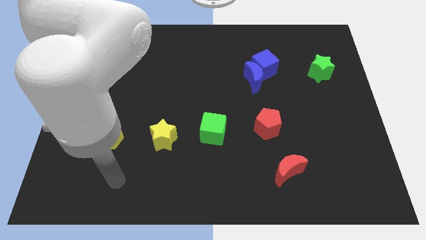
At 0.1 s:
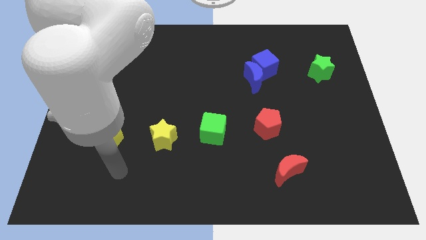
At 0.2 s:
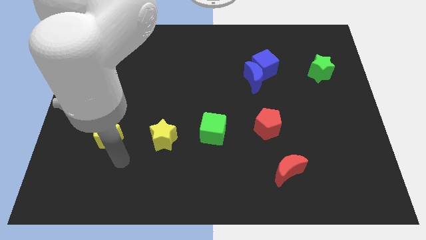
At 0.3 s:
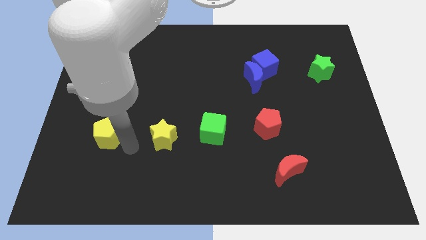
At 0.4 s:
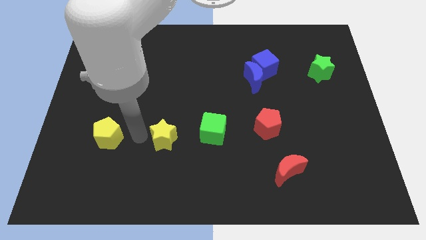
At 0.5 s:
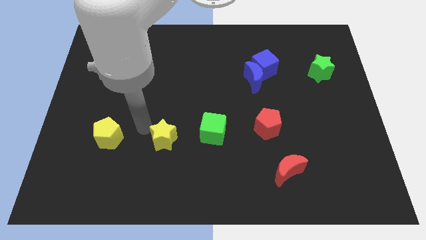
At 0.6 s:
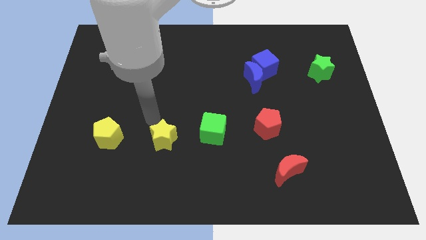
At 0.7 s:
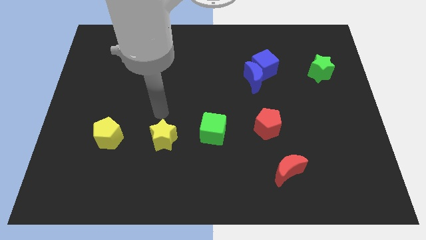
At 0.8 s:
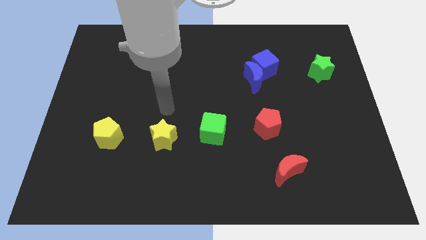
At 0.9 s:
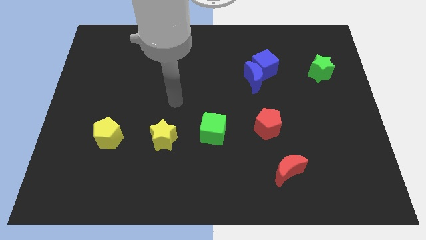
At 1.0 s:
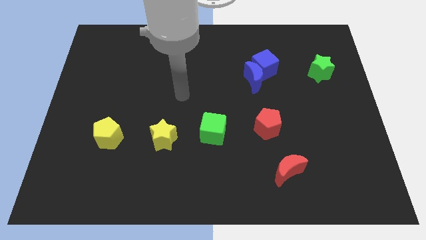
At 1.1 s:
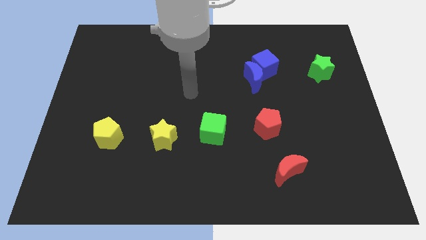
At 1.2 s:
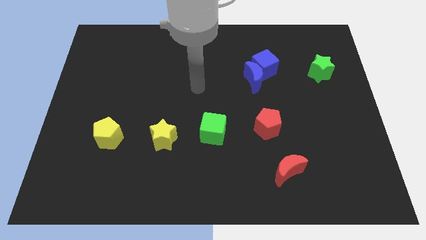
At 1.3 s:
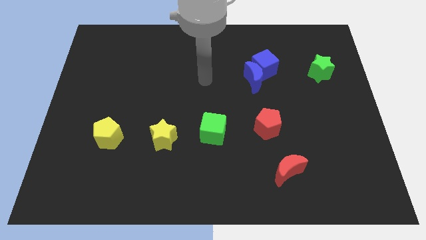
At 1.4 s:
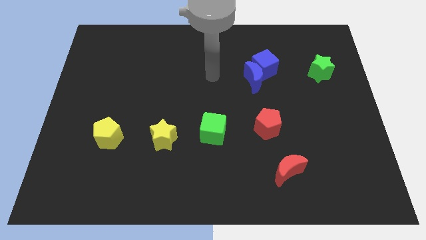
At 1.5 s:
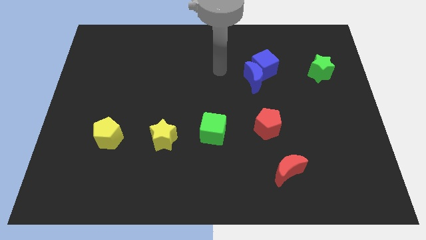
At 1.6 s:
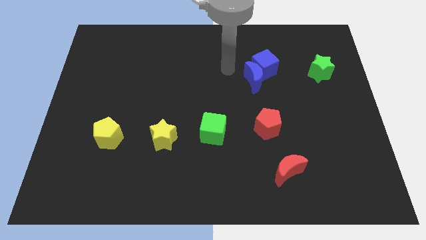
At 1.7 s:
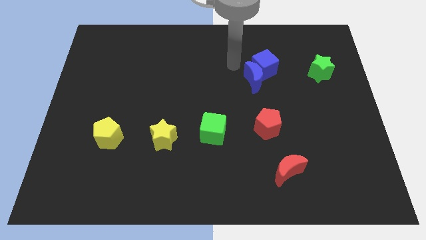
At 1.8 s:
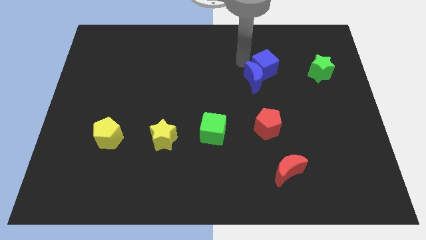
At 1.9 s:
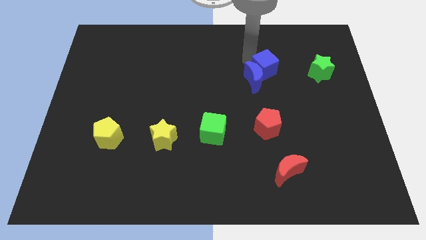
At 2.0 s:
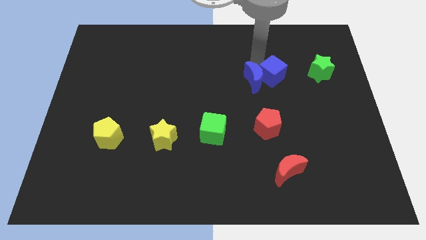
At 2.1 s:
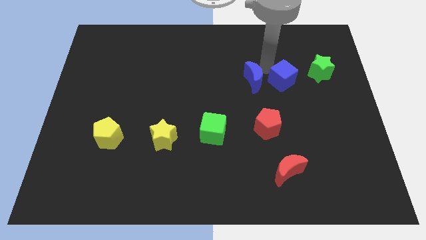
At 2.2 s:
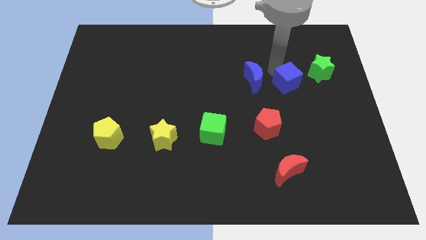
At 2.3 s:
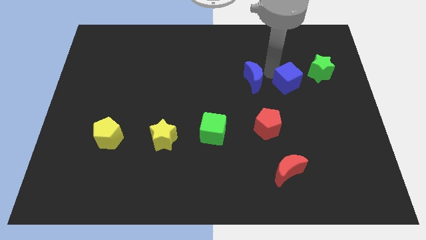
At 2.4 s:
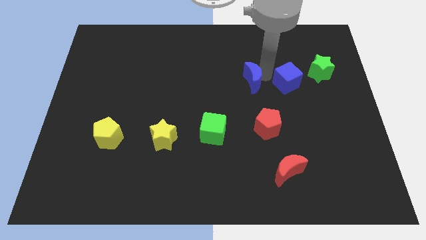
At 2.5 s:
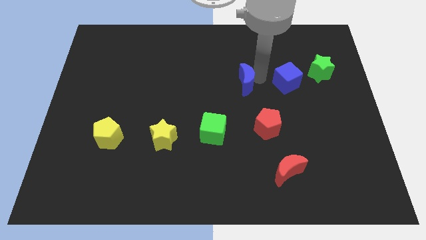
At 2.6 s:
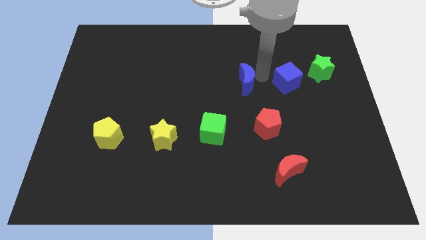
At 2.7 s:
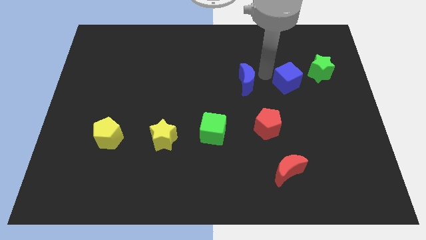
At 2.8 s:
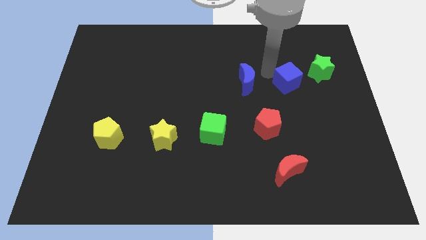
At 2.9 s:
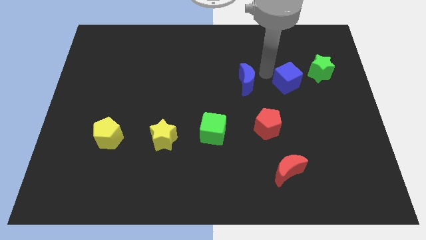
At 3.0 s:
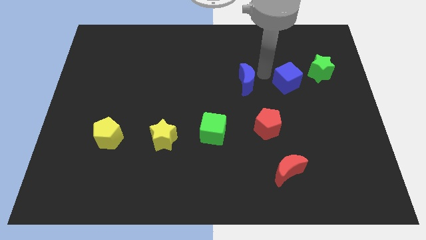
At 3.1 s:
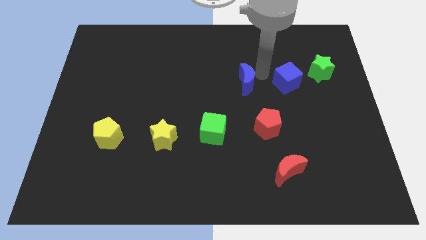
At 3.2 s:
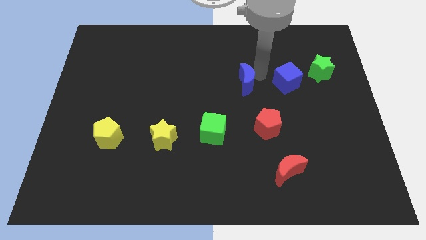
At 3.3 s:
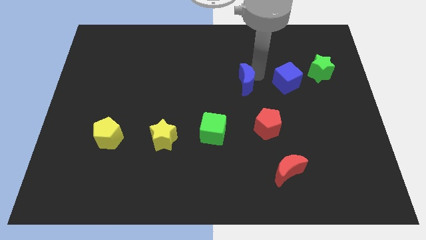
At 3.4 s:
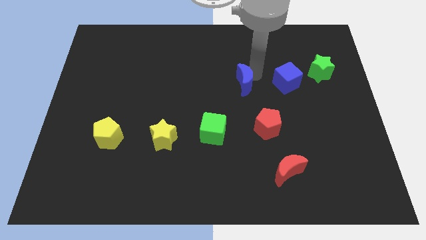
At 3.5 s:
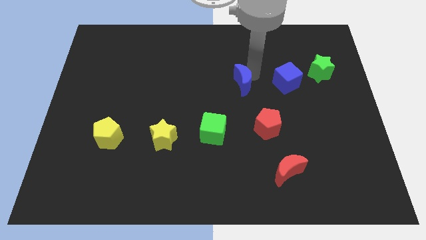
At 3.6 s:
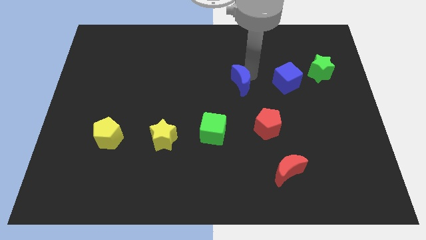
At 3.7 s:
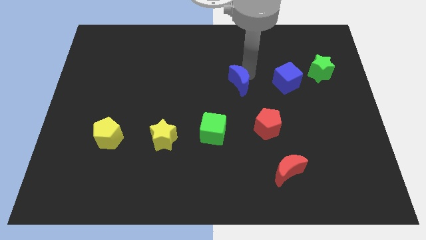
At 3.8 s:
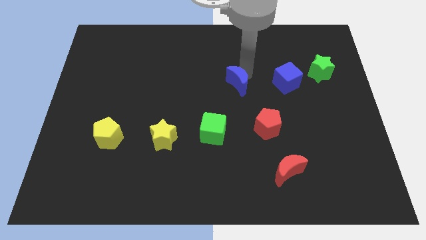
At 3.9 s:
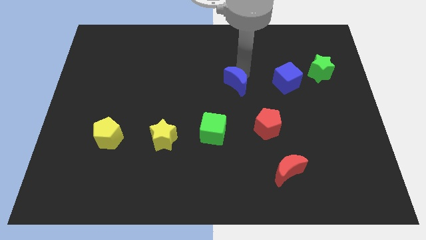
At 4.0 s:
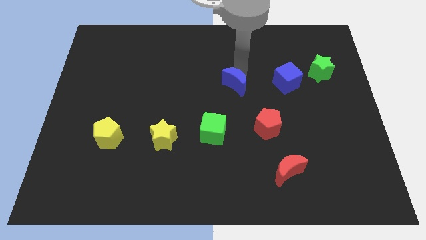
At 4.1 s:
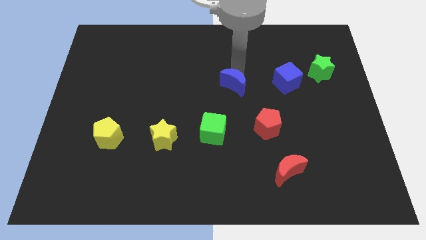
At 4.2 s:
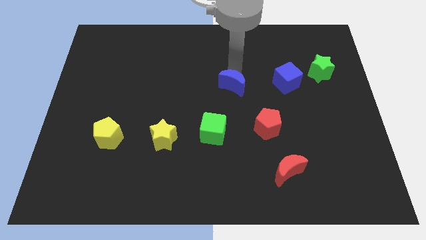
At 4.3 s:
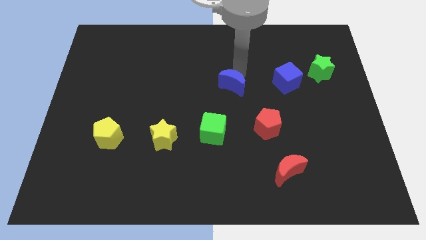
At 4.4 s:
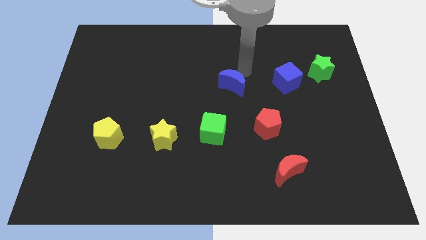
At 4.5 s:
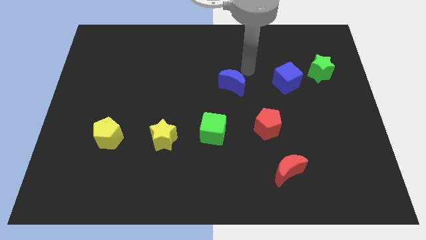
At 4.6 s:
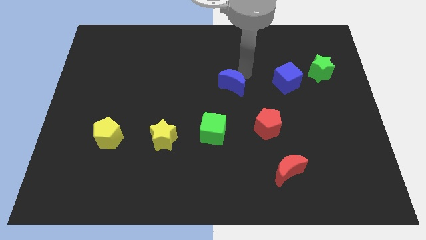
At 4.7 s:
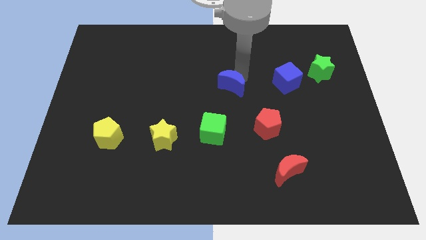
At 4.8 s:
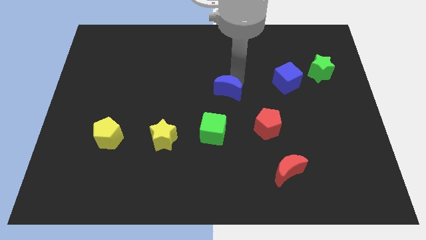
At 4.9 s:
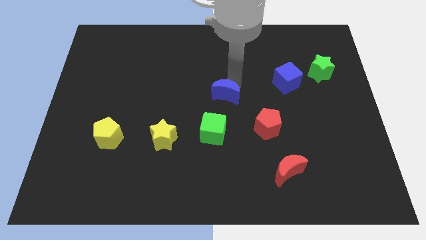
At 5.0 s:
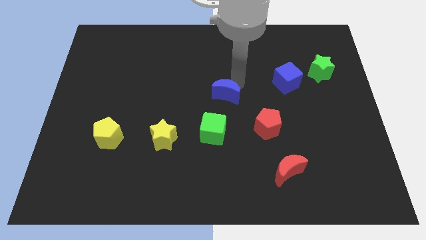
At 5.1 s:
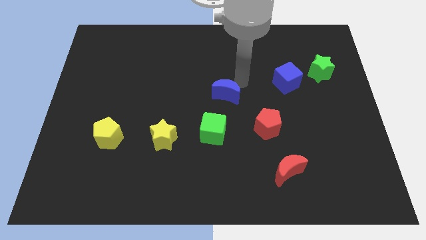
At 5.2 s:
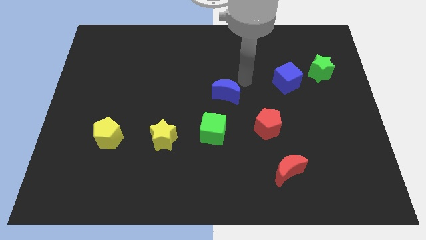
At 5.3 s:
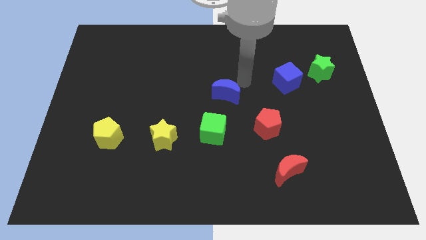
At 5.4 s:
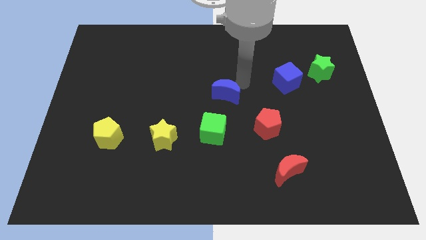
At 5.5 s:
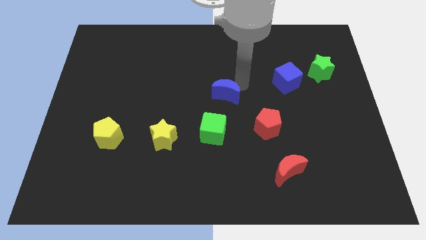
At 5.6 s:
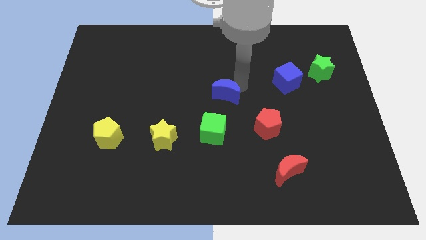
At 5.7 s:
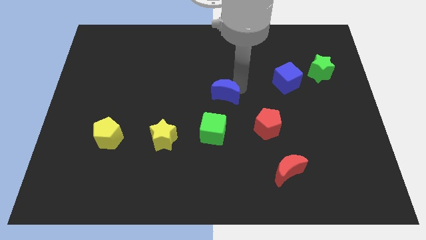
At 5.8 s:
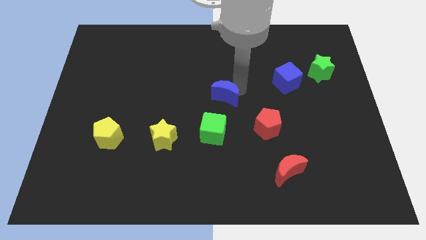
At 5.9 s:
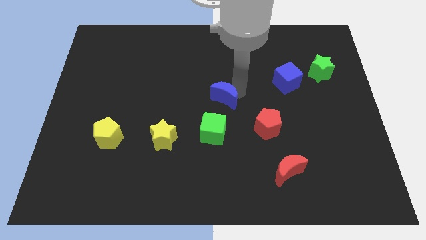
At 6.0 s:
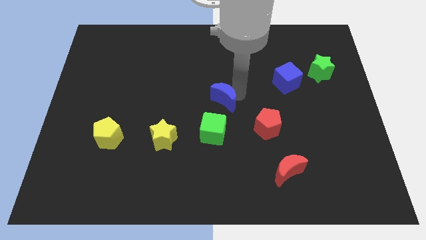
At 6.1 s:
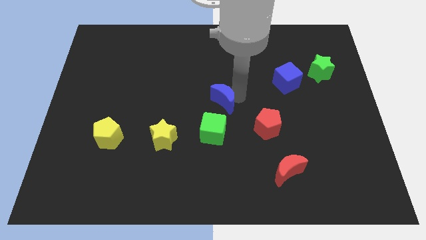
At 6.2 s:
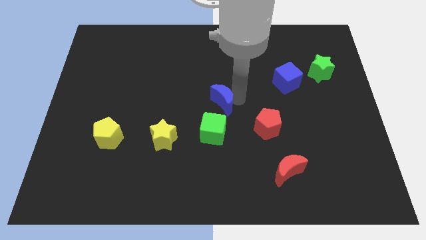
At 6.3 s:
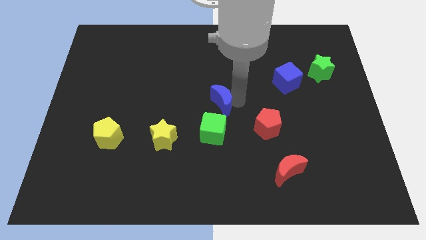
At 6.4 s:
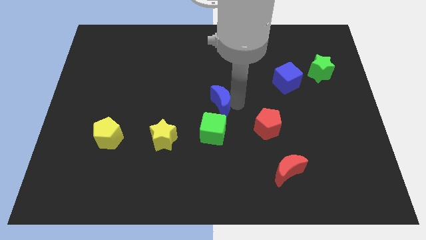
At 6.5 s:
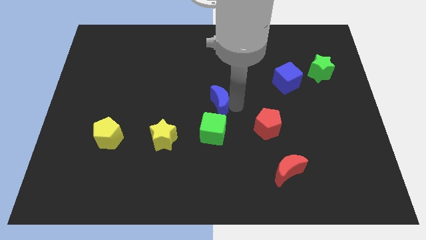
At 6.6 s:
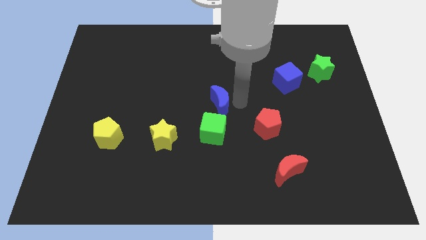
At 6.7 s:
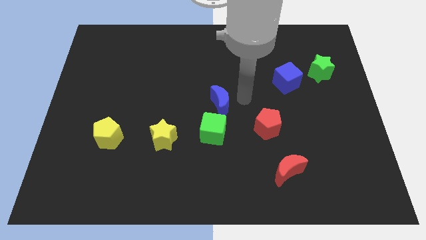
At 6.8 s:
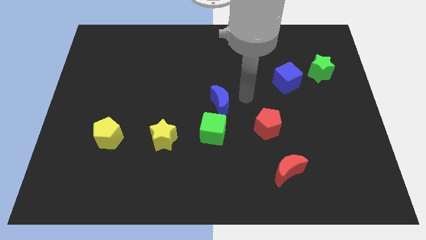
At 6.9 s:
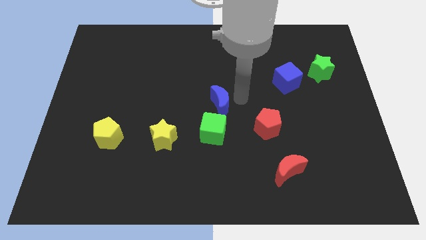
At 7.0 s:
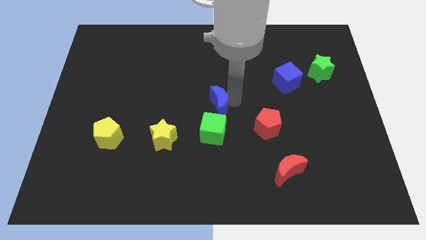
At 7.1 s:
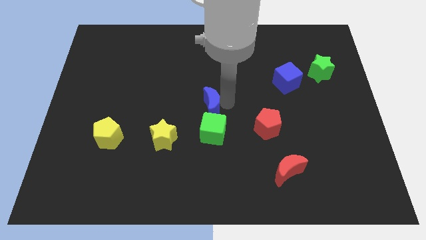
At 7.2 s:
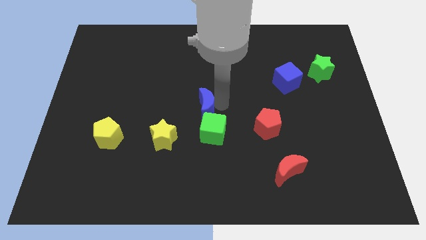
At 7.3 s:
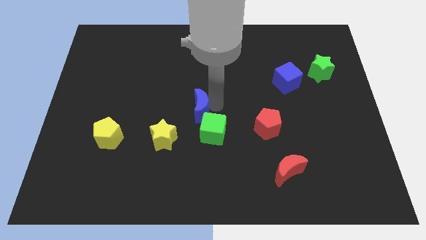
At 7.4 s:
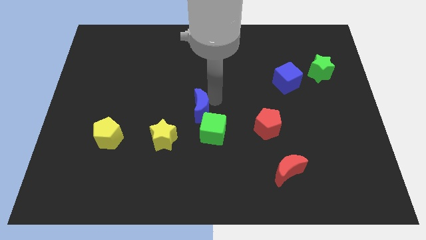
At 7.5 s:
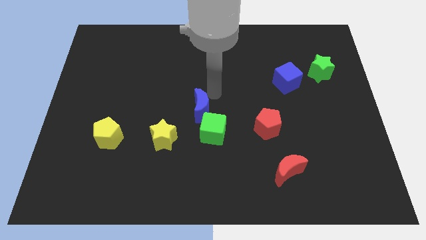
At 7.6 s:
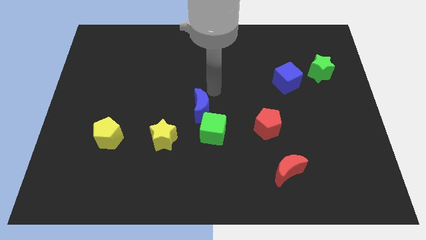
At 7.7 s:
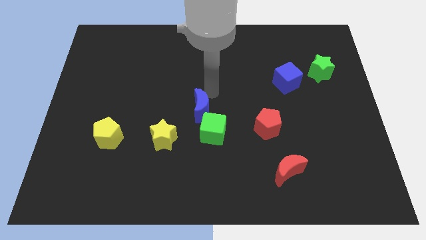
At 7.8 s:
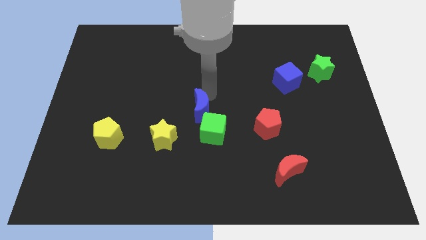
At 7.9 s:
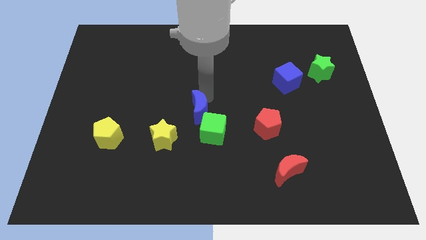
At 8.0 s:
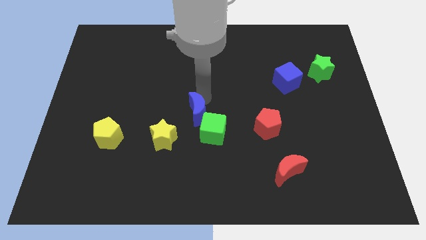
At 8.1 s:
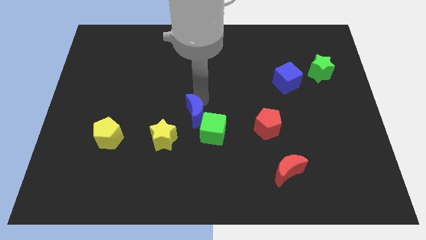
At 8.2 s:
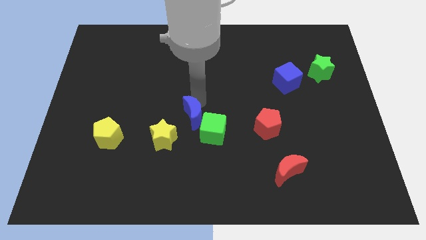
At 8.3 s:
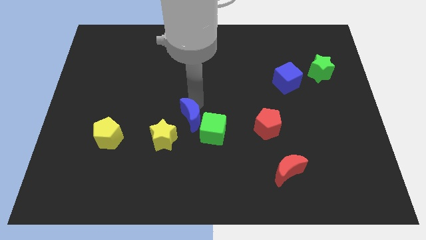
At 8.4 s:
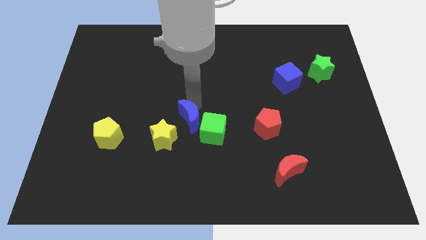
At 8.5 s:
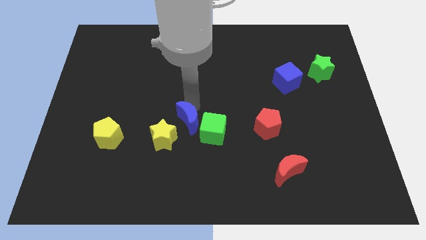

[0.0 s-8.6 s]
push the blue moon down and to the left diagonally
